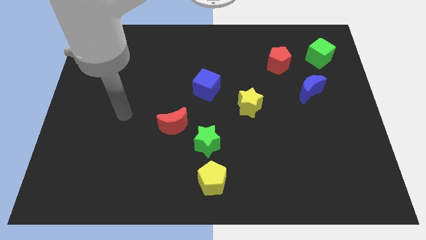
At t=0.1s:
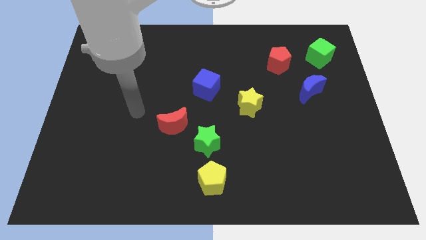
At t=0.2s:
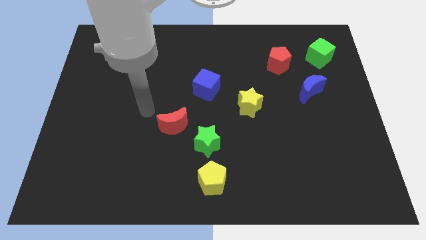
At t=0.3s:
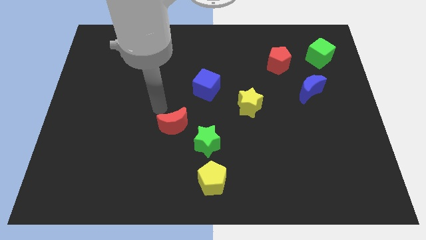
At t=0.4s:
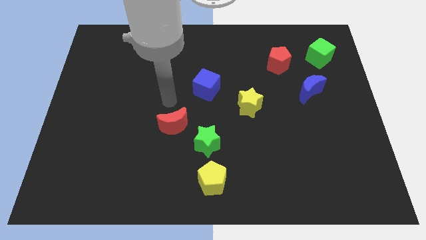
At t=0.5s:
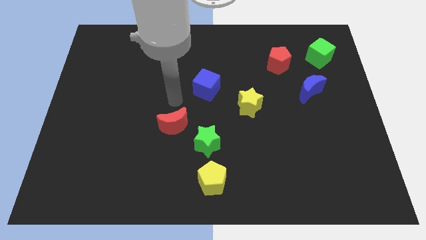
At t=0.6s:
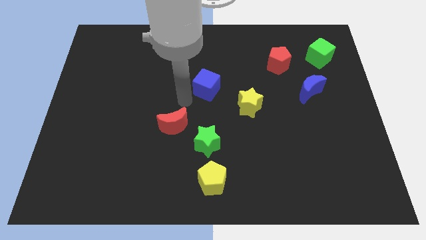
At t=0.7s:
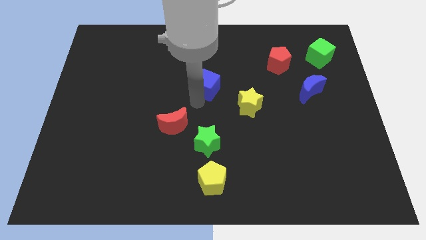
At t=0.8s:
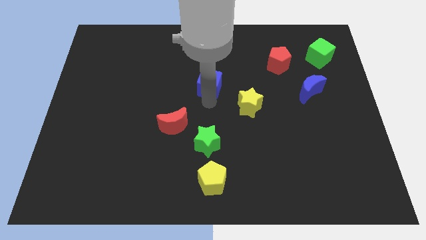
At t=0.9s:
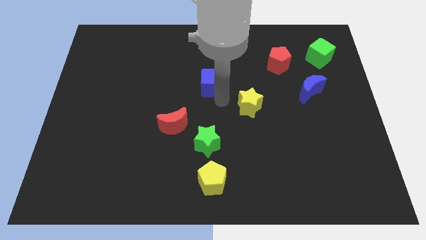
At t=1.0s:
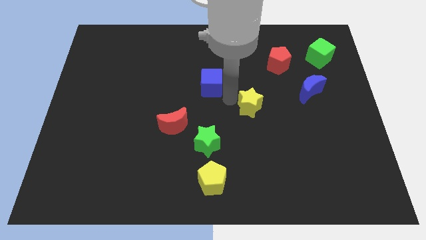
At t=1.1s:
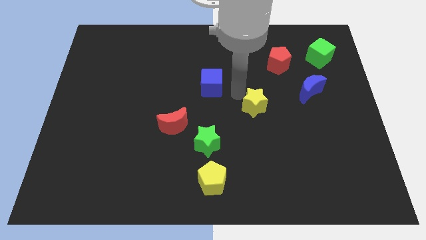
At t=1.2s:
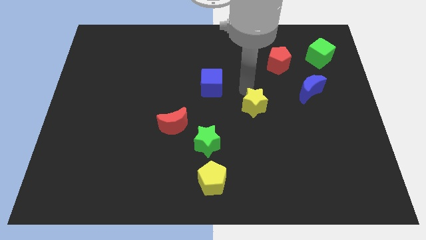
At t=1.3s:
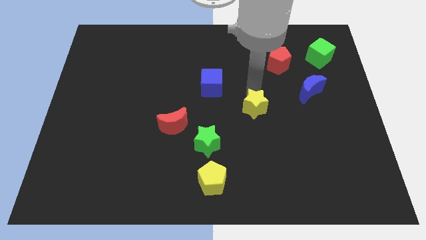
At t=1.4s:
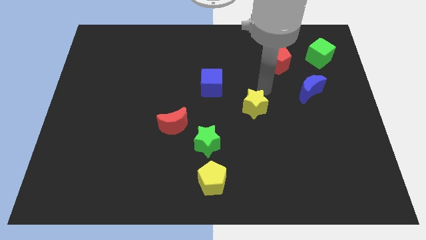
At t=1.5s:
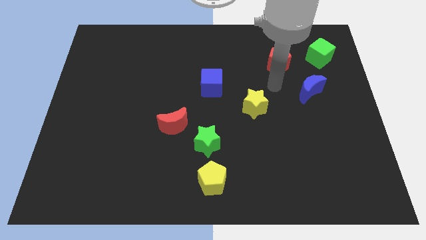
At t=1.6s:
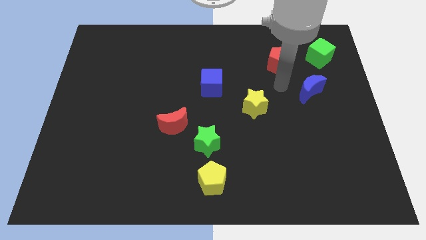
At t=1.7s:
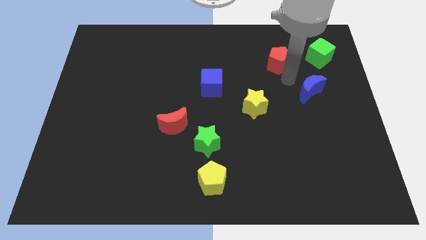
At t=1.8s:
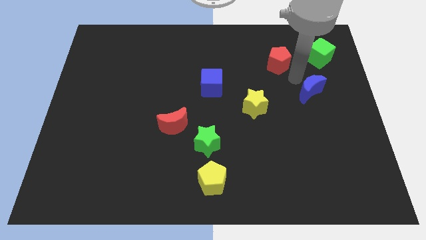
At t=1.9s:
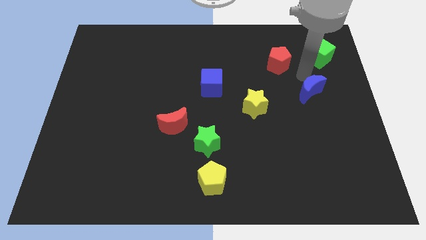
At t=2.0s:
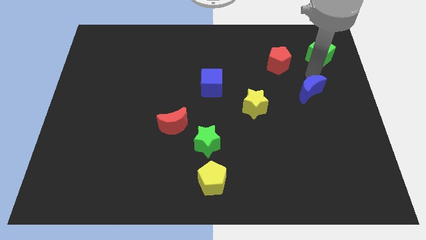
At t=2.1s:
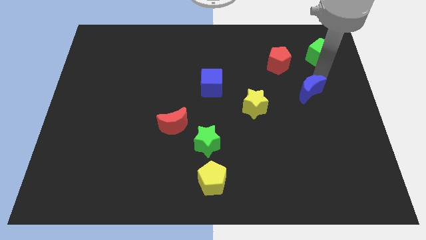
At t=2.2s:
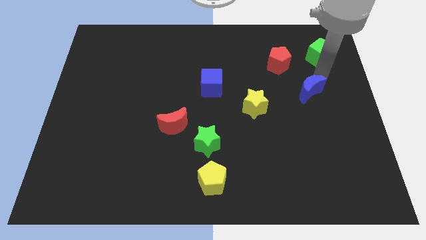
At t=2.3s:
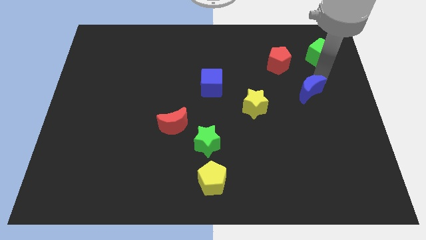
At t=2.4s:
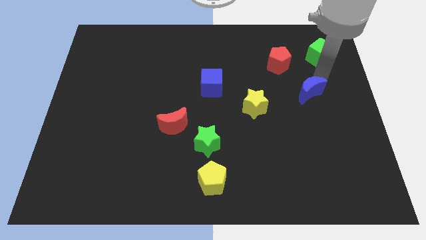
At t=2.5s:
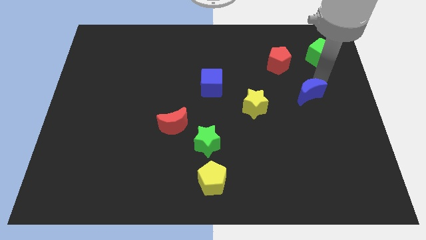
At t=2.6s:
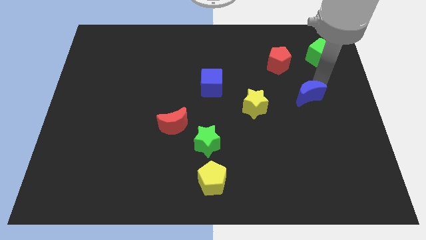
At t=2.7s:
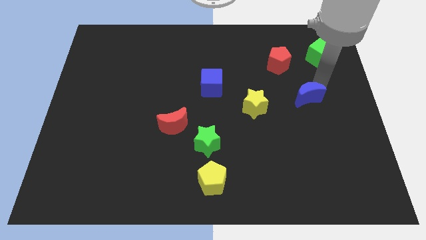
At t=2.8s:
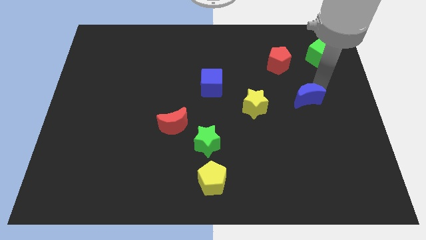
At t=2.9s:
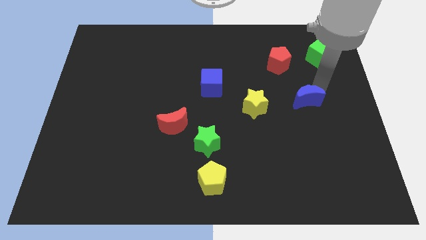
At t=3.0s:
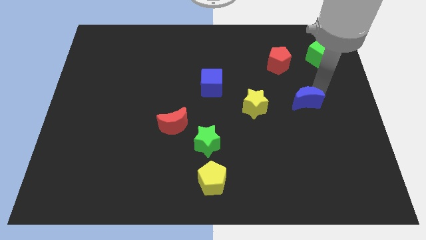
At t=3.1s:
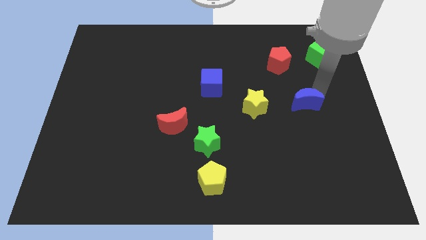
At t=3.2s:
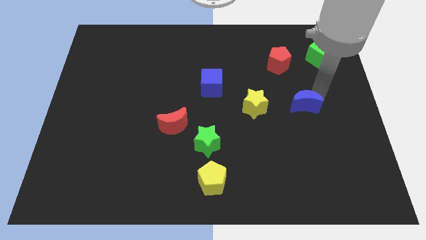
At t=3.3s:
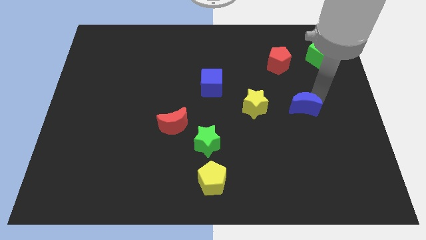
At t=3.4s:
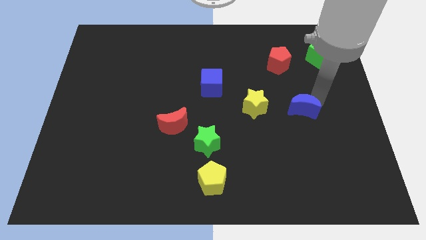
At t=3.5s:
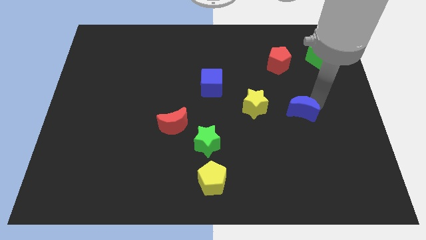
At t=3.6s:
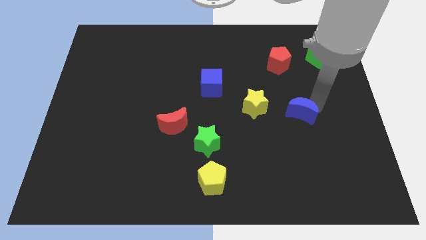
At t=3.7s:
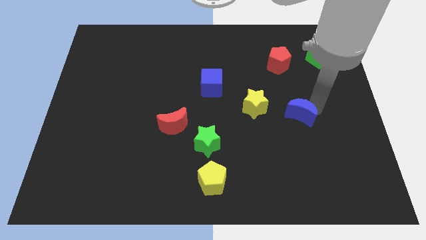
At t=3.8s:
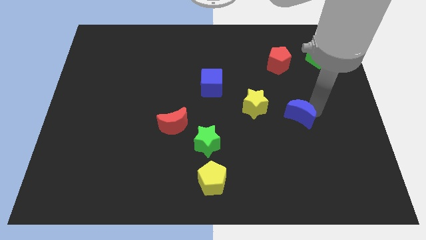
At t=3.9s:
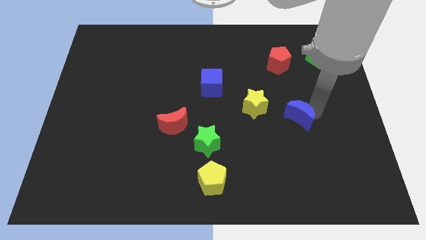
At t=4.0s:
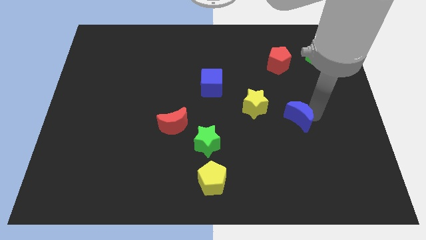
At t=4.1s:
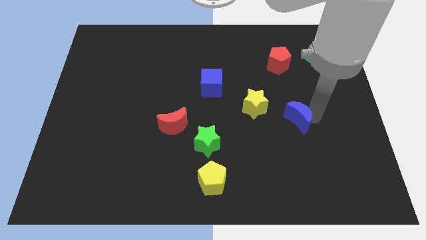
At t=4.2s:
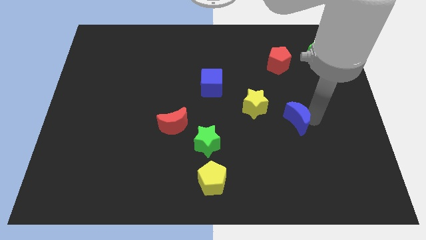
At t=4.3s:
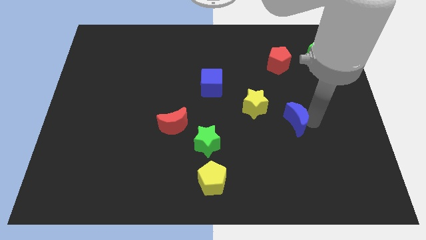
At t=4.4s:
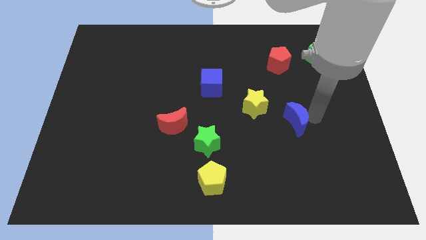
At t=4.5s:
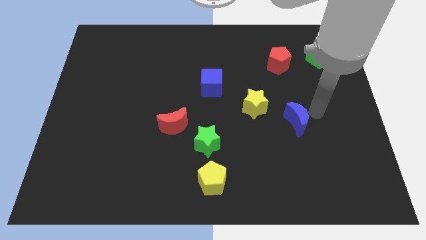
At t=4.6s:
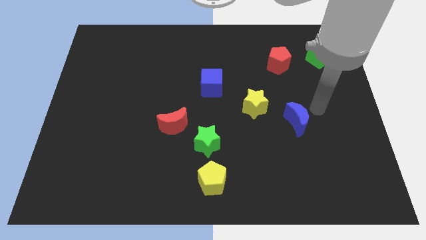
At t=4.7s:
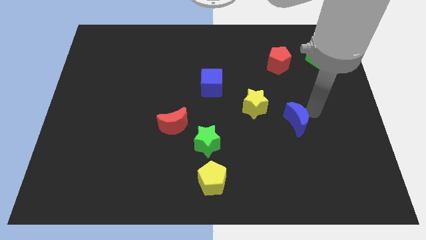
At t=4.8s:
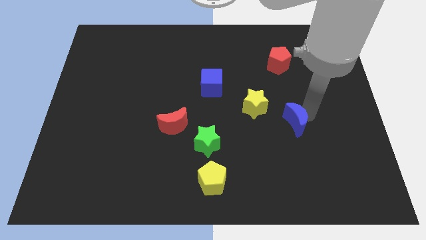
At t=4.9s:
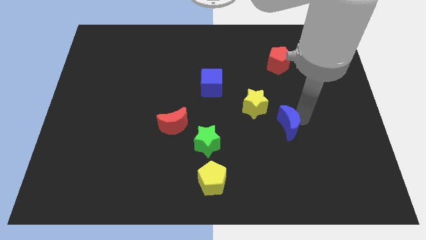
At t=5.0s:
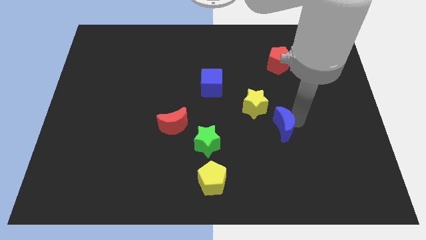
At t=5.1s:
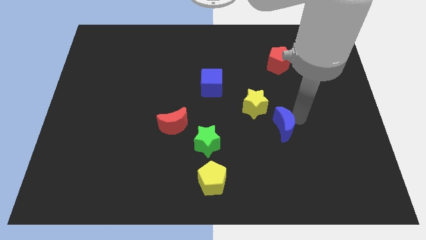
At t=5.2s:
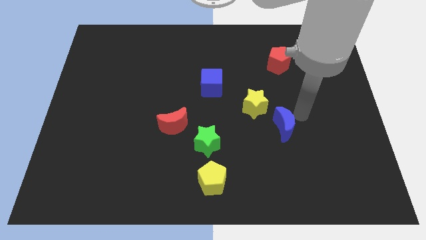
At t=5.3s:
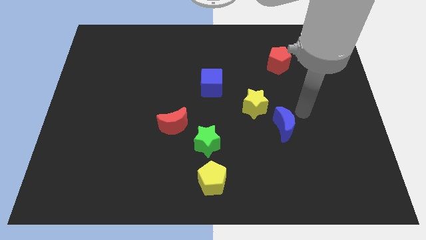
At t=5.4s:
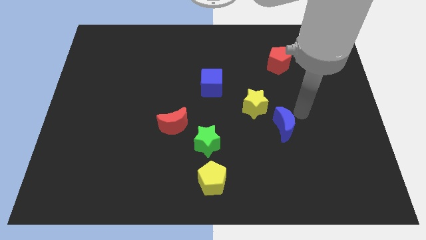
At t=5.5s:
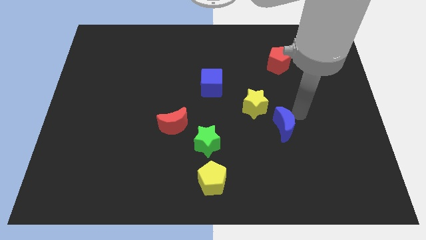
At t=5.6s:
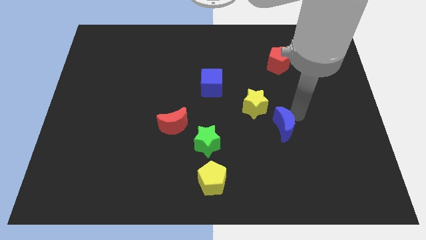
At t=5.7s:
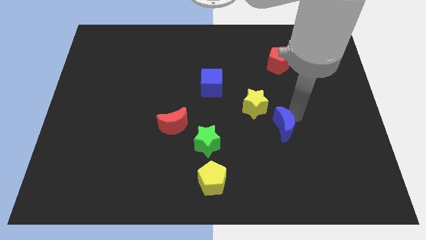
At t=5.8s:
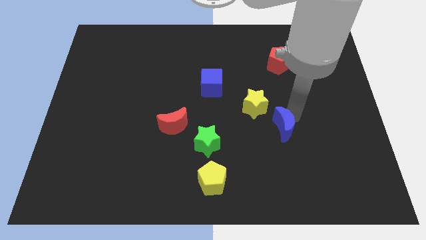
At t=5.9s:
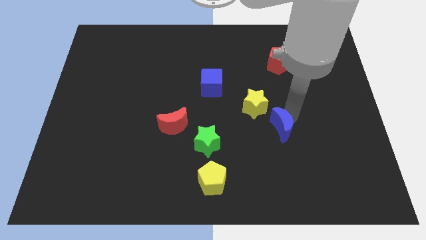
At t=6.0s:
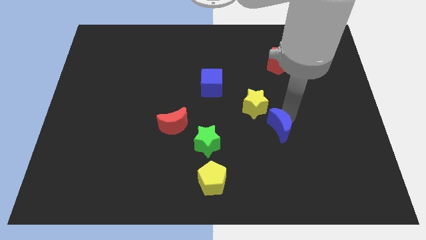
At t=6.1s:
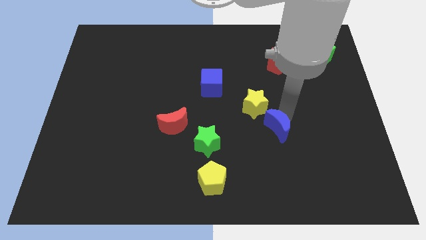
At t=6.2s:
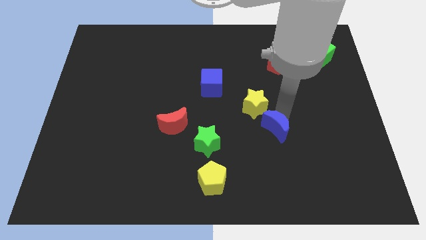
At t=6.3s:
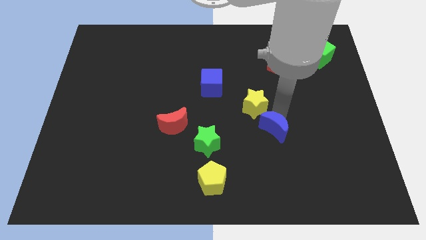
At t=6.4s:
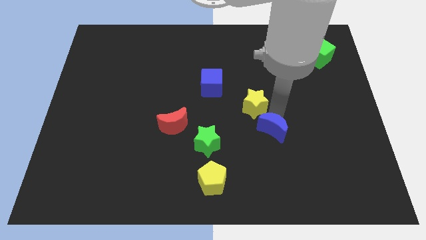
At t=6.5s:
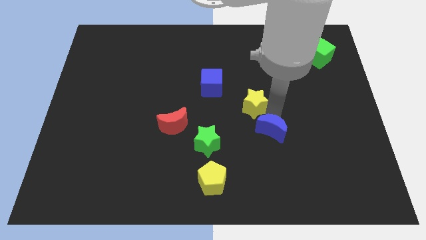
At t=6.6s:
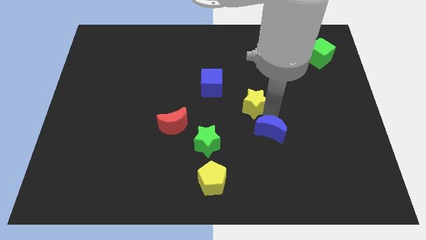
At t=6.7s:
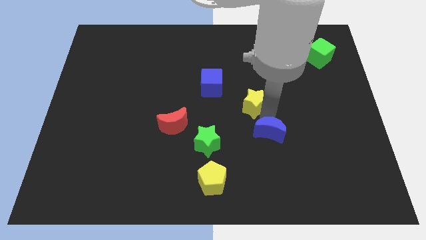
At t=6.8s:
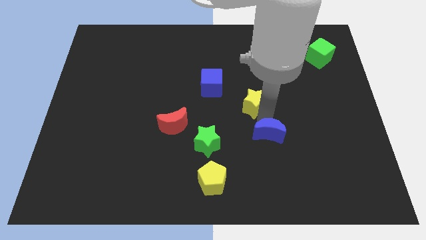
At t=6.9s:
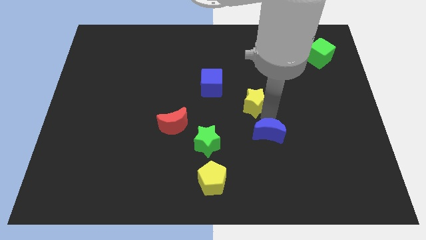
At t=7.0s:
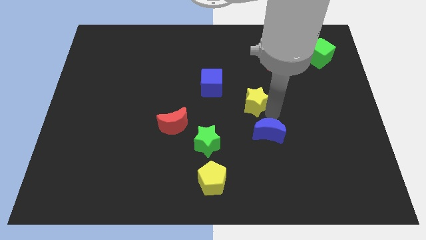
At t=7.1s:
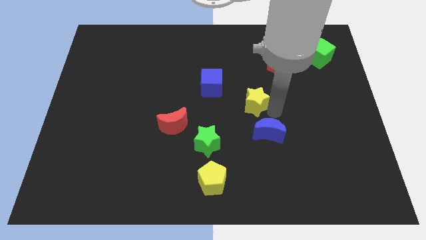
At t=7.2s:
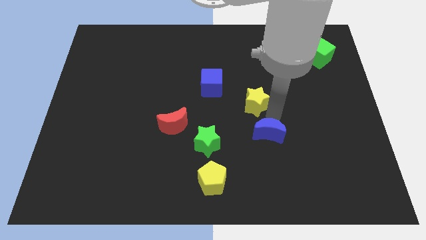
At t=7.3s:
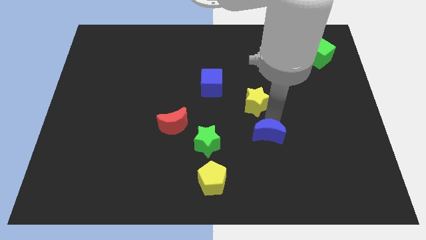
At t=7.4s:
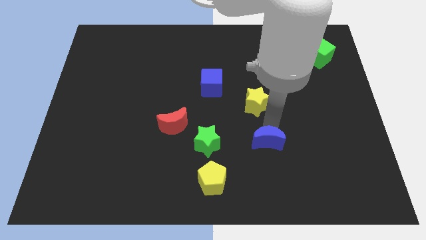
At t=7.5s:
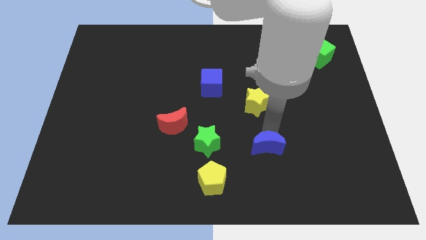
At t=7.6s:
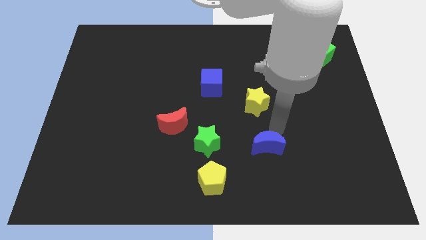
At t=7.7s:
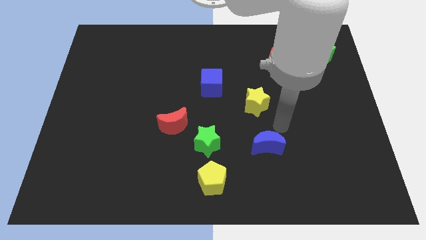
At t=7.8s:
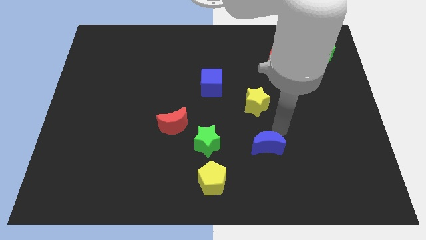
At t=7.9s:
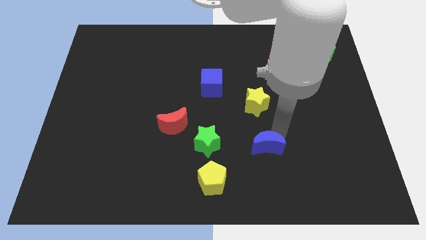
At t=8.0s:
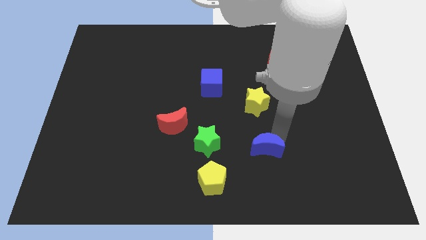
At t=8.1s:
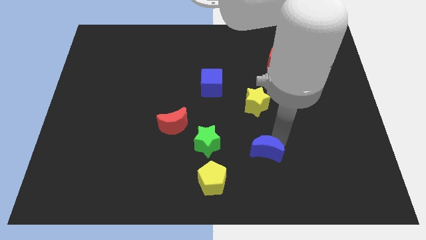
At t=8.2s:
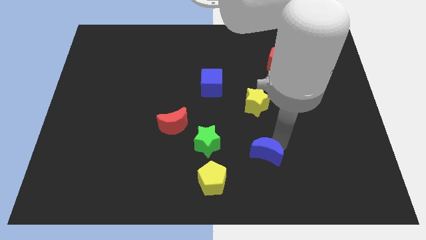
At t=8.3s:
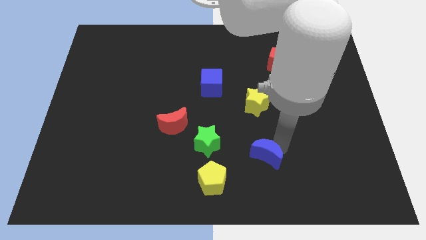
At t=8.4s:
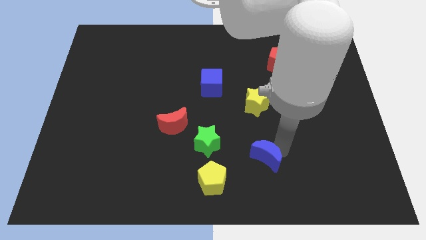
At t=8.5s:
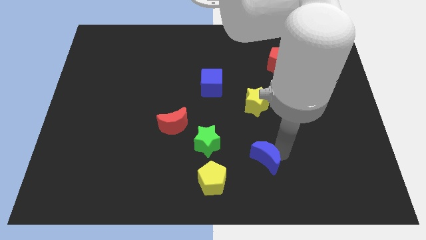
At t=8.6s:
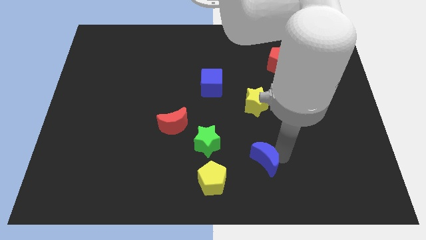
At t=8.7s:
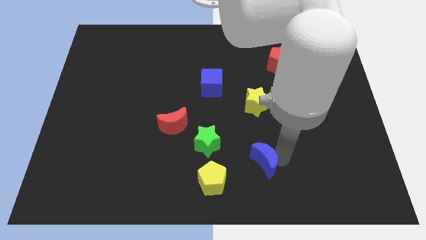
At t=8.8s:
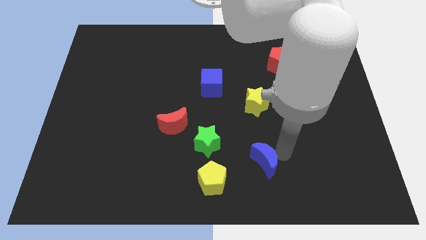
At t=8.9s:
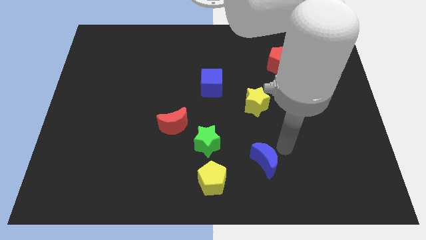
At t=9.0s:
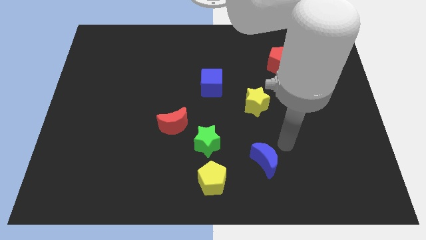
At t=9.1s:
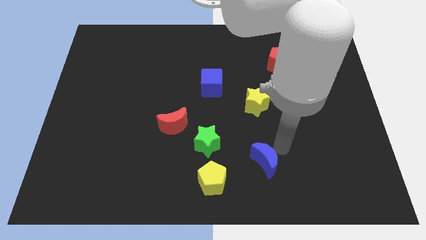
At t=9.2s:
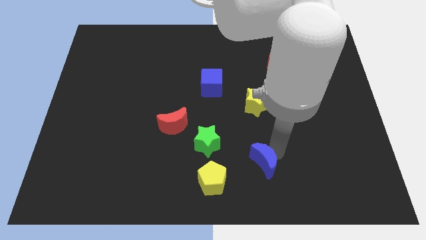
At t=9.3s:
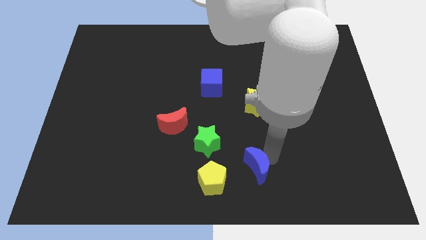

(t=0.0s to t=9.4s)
push the blue moon to the bottom
